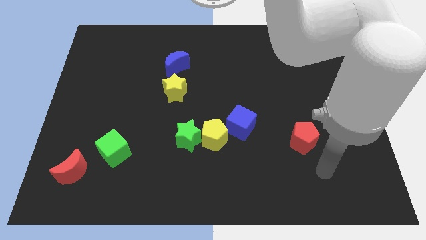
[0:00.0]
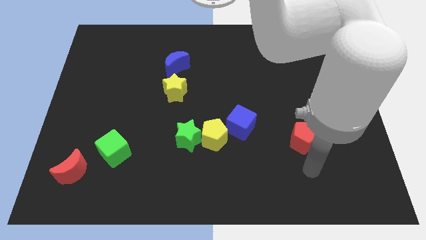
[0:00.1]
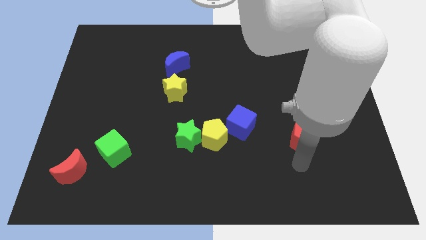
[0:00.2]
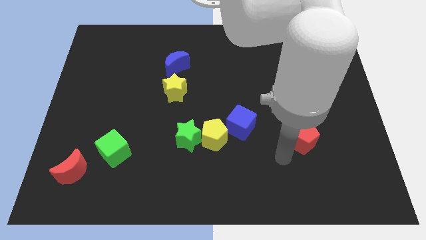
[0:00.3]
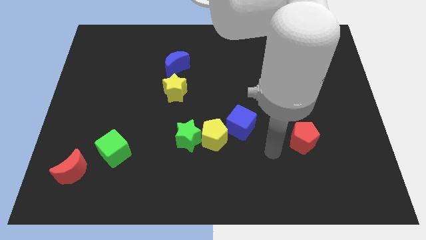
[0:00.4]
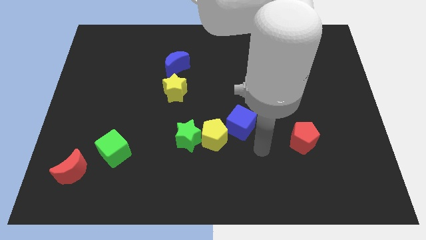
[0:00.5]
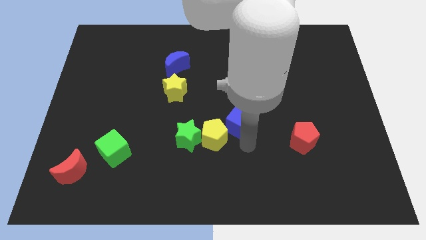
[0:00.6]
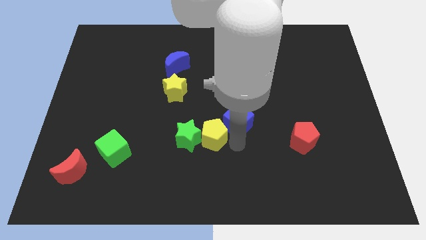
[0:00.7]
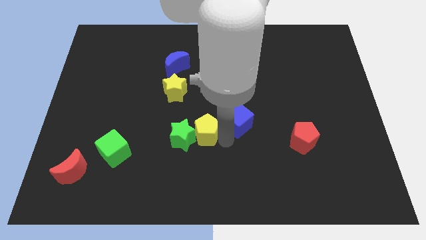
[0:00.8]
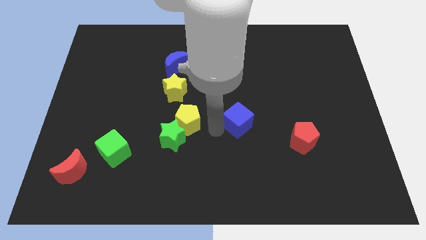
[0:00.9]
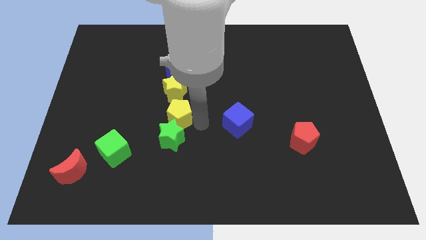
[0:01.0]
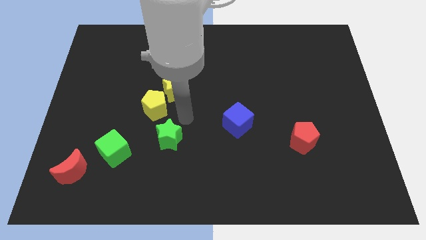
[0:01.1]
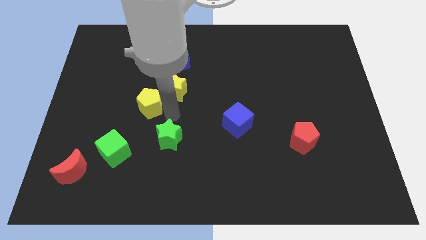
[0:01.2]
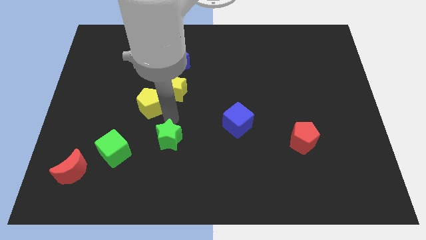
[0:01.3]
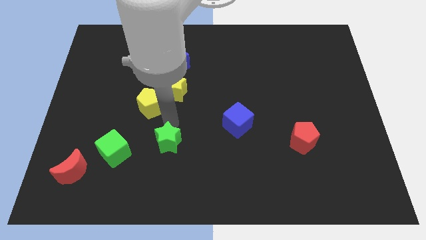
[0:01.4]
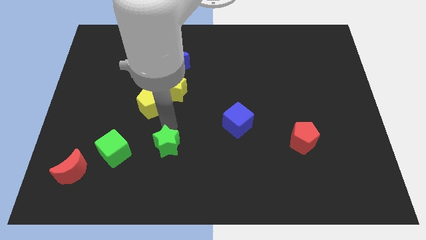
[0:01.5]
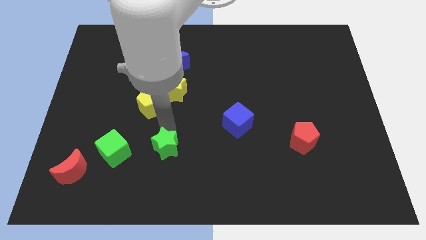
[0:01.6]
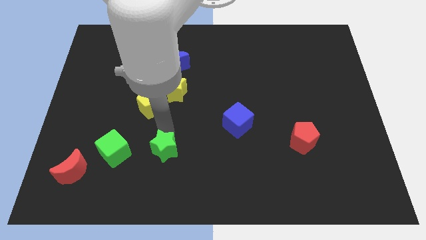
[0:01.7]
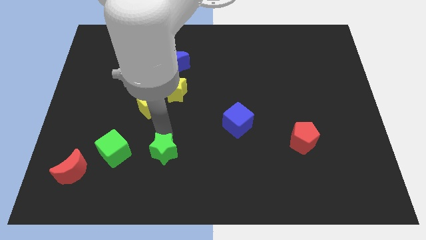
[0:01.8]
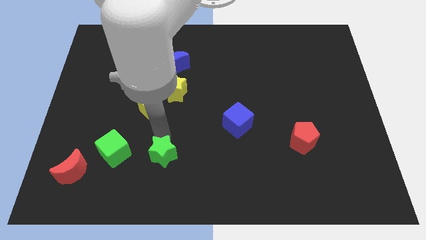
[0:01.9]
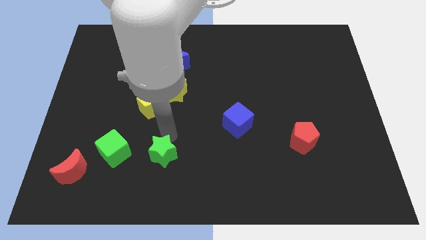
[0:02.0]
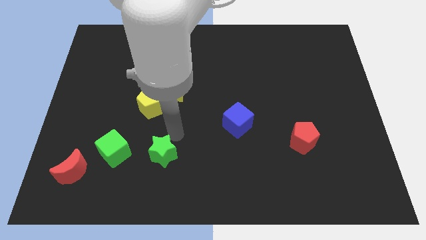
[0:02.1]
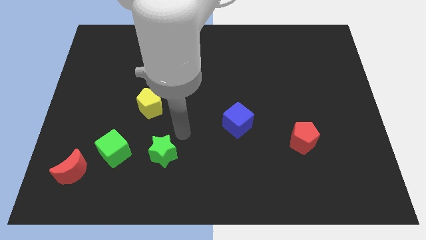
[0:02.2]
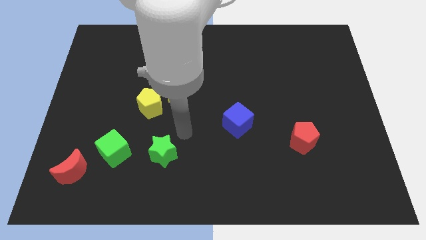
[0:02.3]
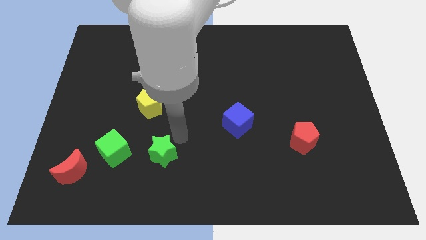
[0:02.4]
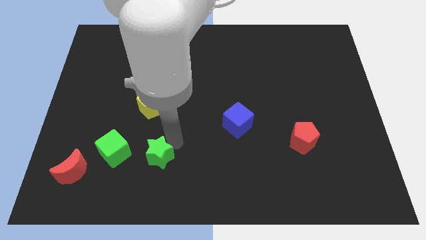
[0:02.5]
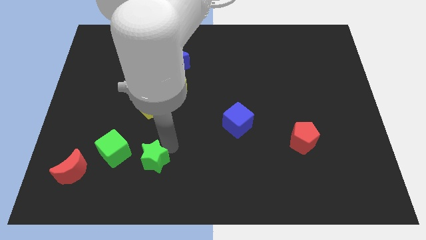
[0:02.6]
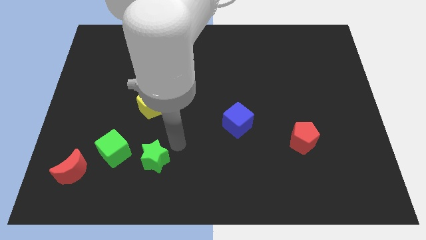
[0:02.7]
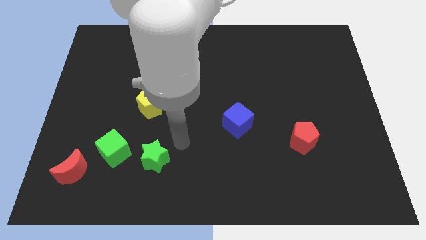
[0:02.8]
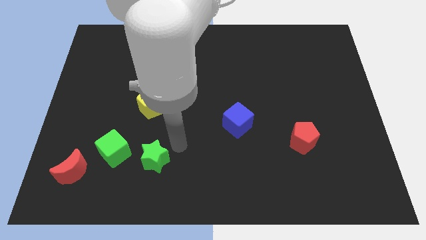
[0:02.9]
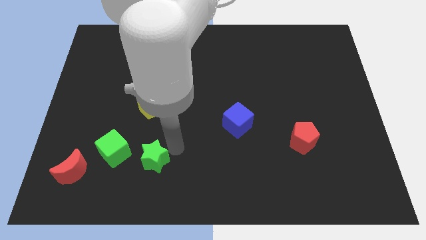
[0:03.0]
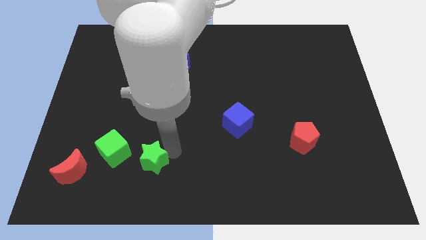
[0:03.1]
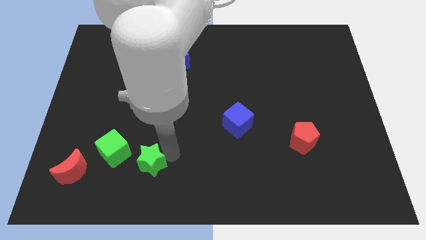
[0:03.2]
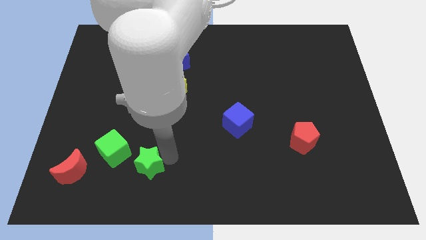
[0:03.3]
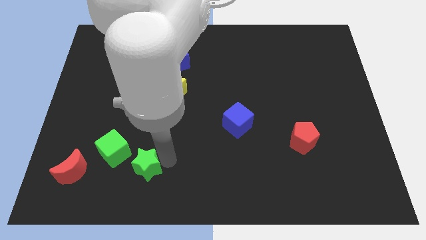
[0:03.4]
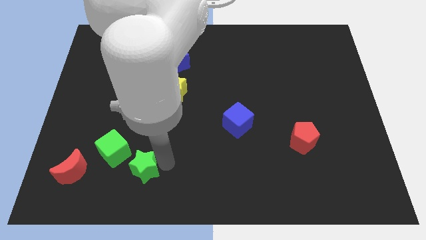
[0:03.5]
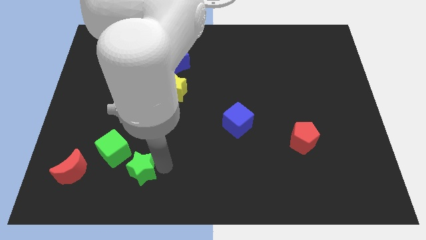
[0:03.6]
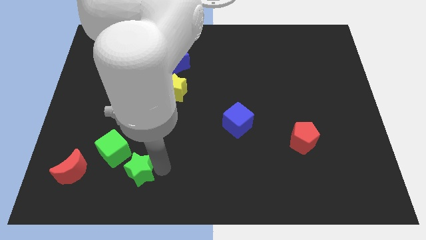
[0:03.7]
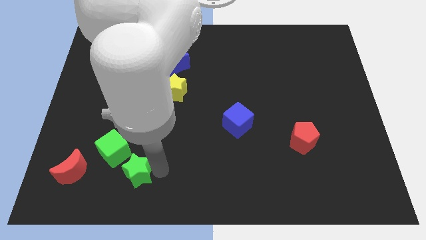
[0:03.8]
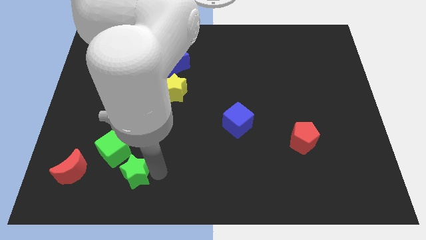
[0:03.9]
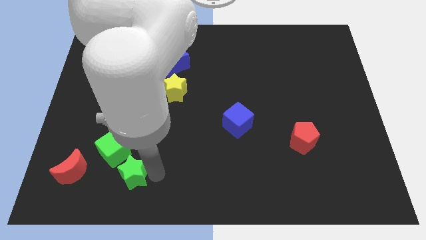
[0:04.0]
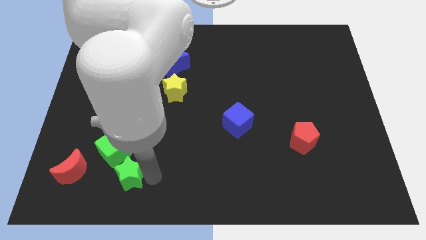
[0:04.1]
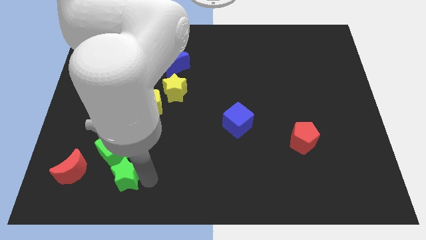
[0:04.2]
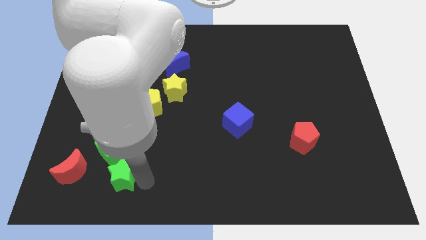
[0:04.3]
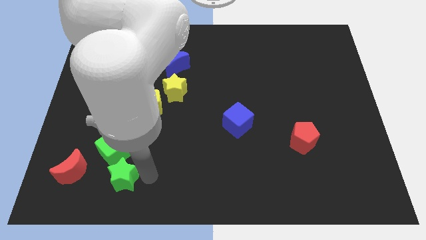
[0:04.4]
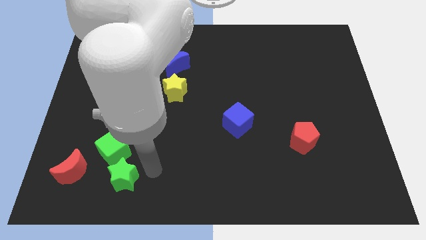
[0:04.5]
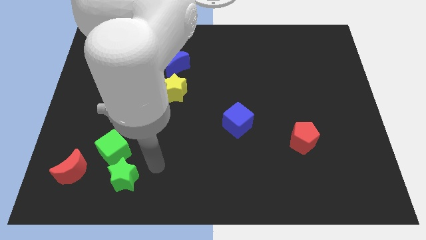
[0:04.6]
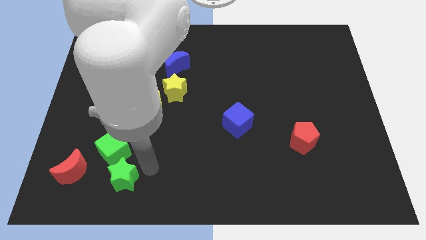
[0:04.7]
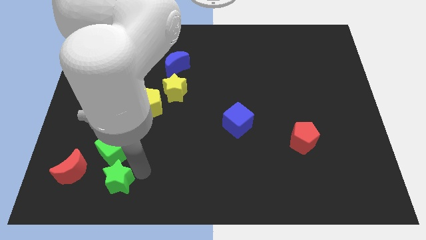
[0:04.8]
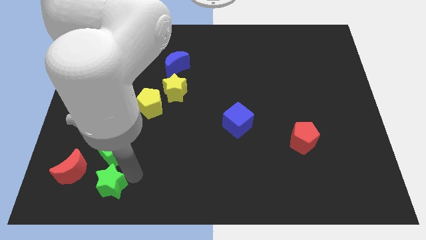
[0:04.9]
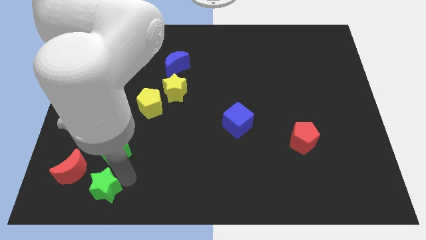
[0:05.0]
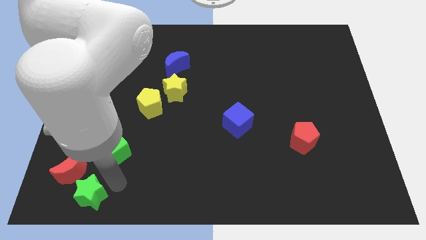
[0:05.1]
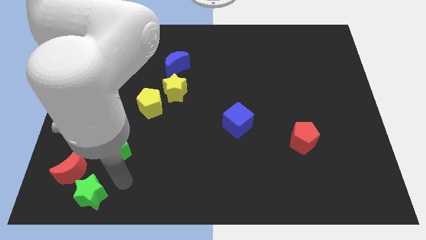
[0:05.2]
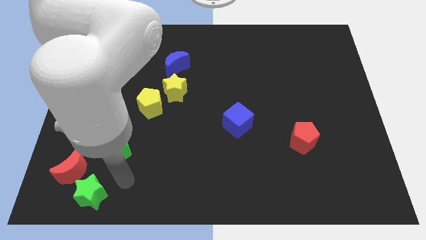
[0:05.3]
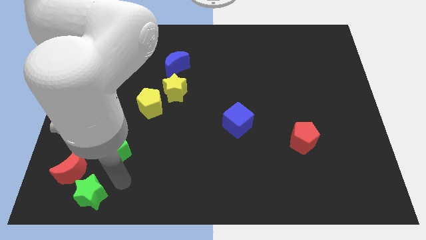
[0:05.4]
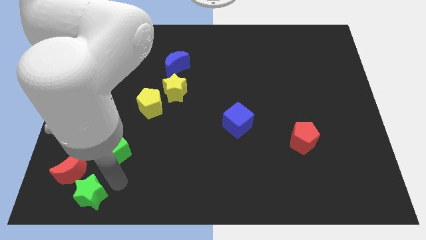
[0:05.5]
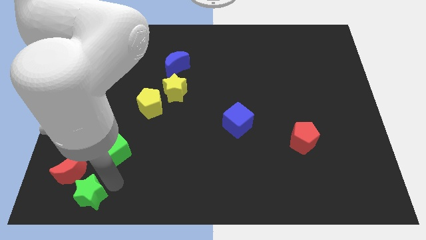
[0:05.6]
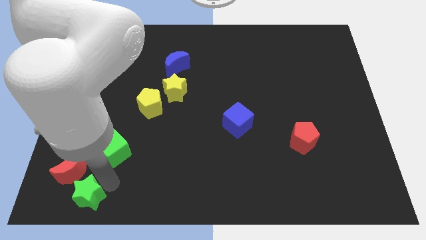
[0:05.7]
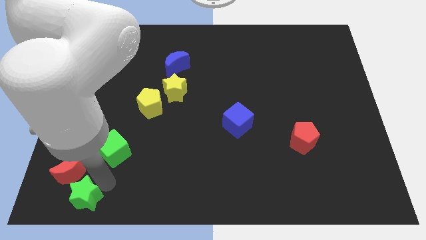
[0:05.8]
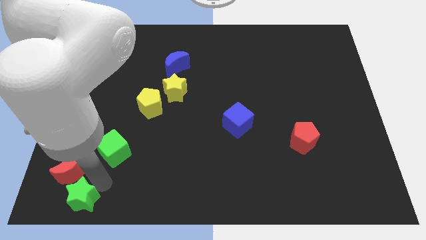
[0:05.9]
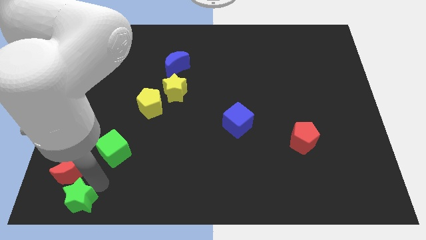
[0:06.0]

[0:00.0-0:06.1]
put the green star to the bottom left

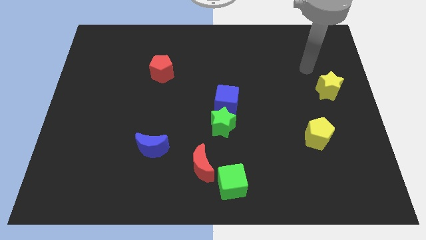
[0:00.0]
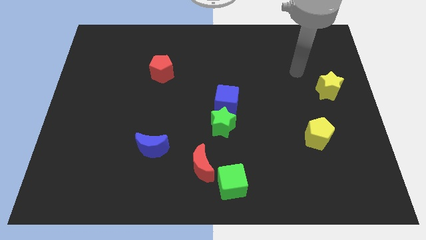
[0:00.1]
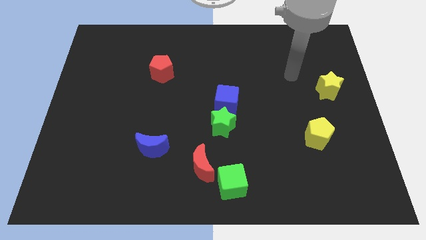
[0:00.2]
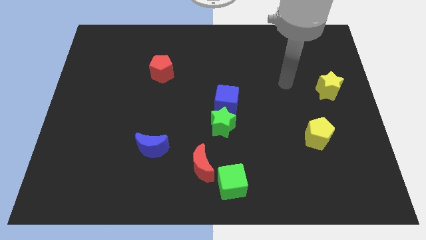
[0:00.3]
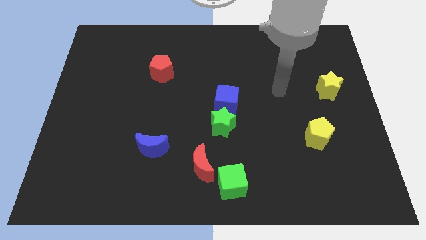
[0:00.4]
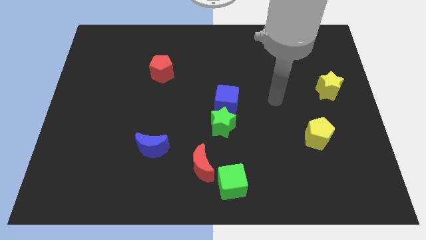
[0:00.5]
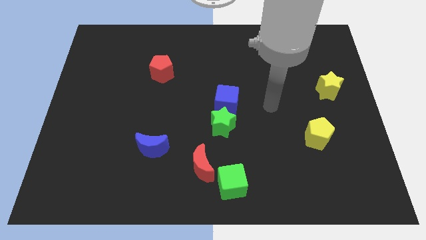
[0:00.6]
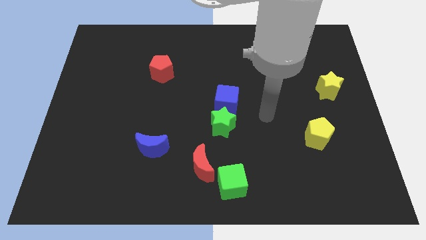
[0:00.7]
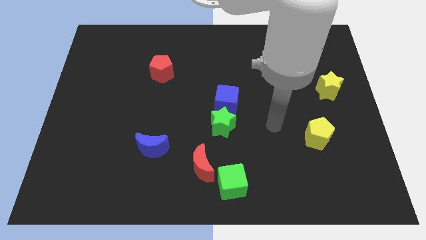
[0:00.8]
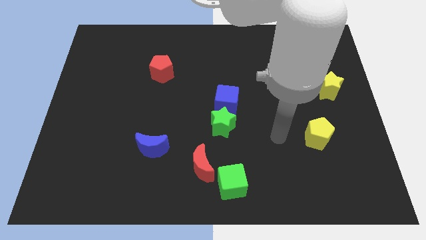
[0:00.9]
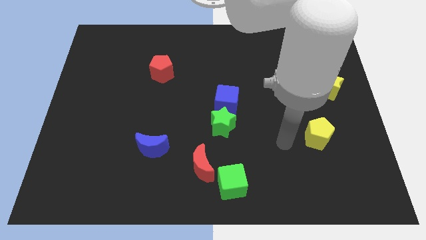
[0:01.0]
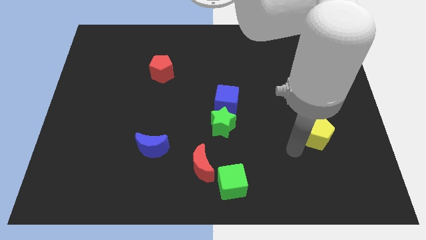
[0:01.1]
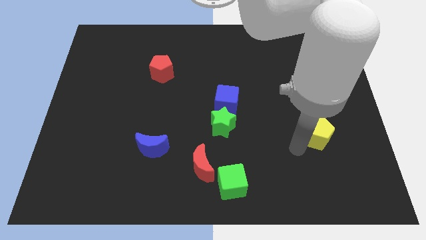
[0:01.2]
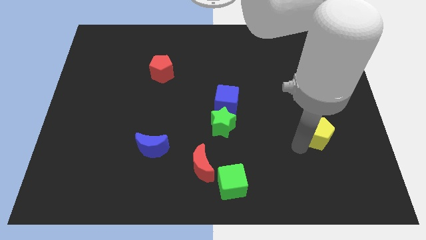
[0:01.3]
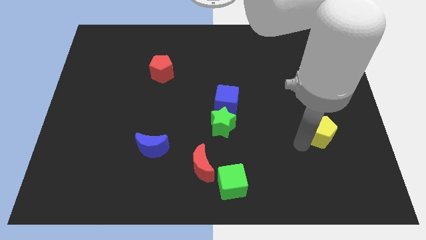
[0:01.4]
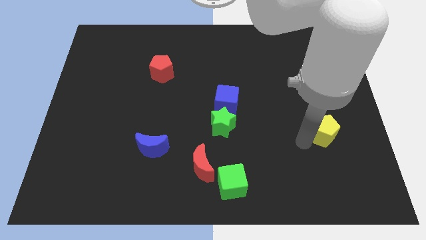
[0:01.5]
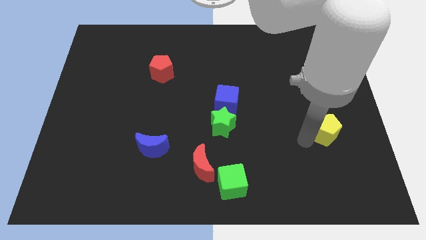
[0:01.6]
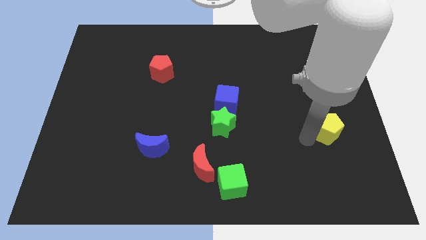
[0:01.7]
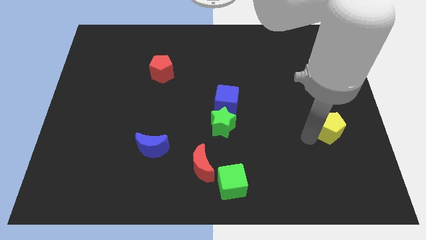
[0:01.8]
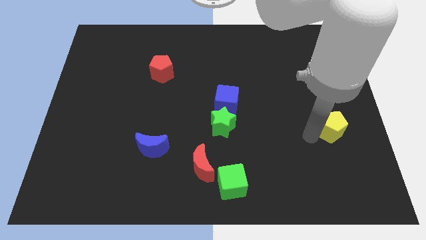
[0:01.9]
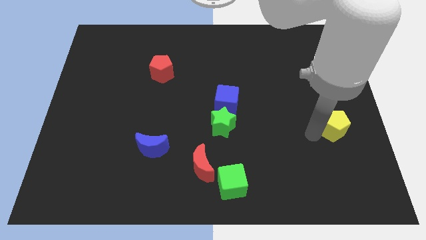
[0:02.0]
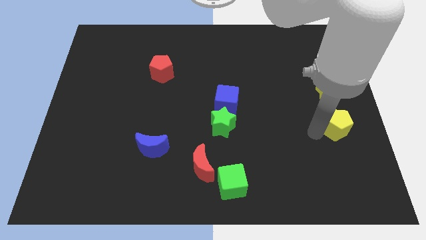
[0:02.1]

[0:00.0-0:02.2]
move the yellow pentagon to the right side of the board
